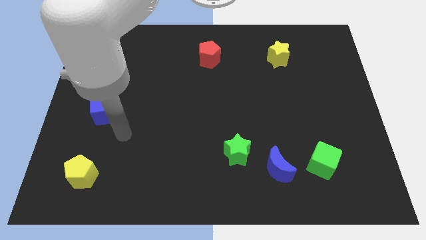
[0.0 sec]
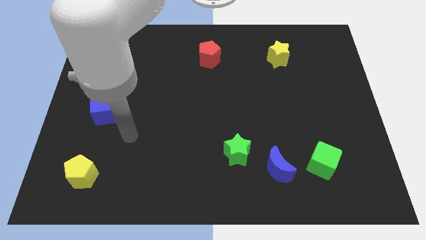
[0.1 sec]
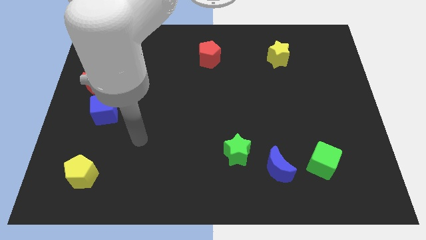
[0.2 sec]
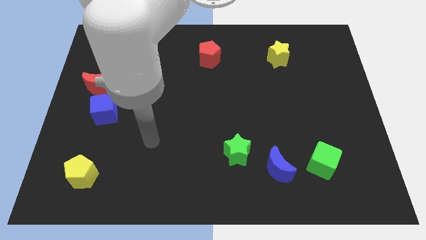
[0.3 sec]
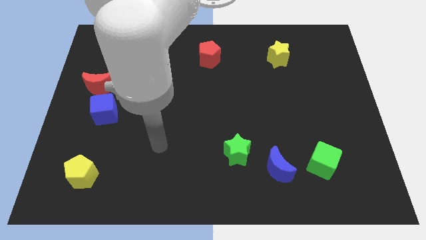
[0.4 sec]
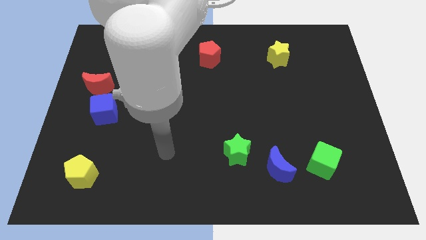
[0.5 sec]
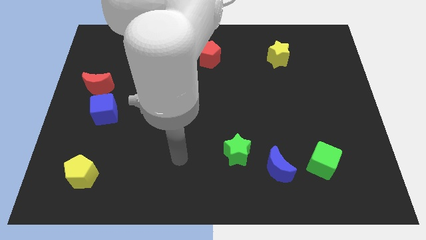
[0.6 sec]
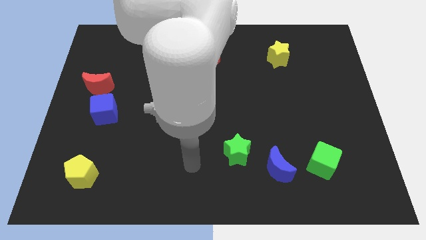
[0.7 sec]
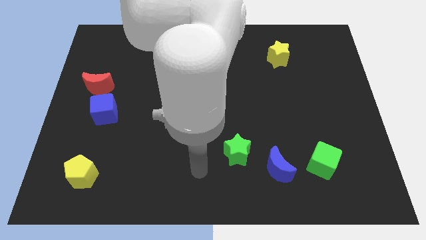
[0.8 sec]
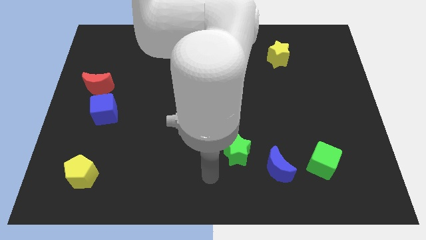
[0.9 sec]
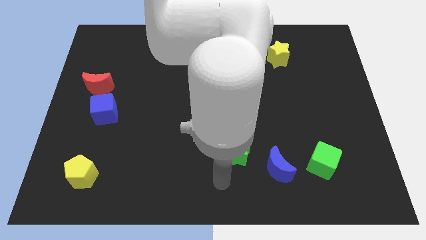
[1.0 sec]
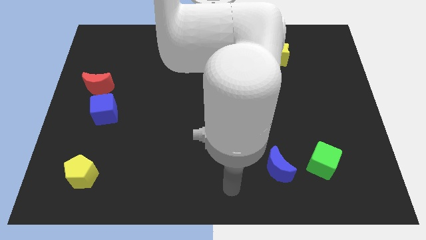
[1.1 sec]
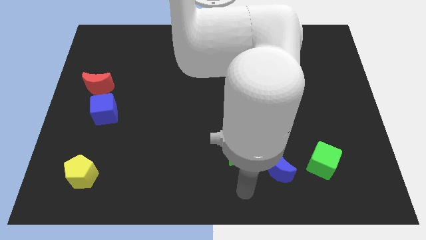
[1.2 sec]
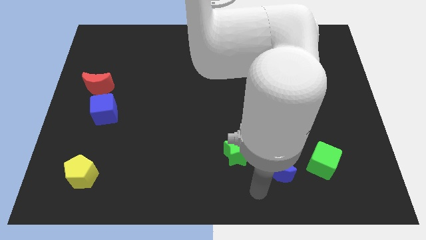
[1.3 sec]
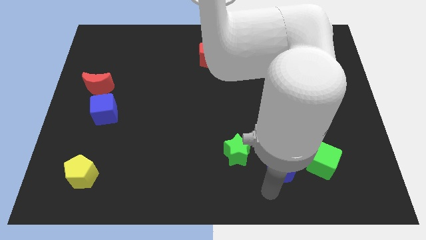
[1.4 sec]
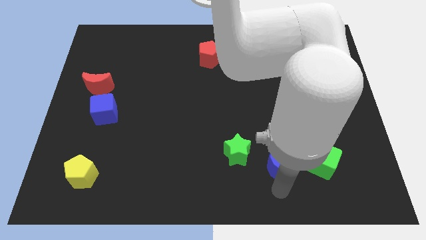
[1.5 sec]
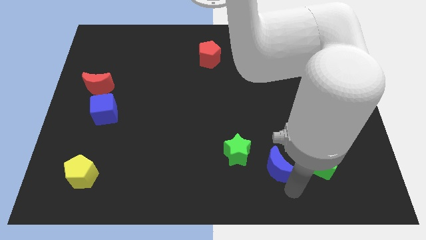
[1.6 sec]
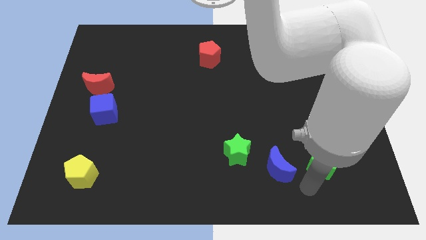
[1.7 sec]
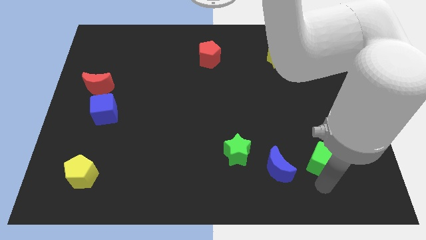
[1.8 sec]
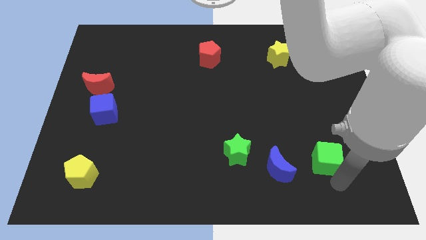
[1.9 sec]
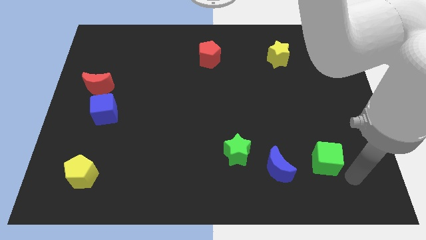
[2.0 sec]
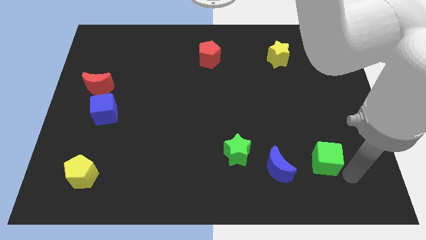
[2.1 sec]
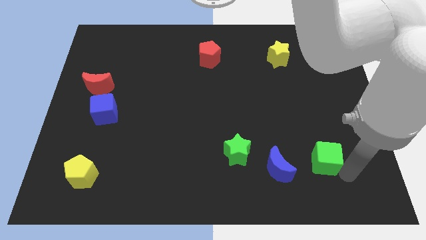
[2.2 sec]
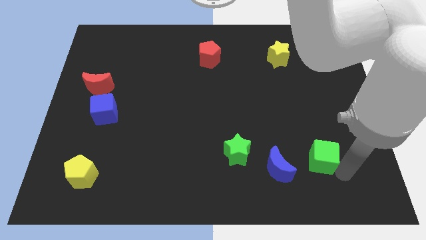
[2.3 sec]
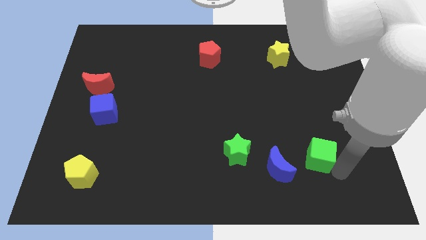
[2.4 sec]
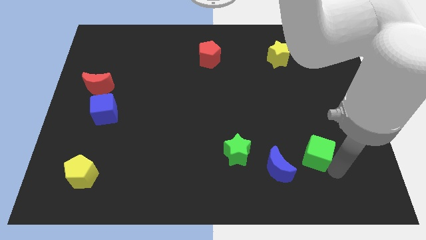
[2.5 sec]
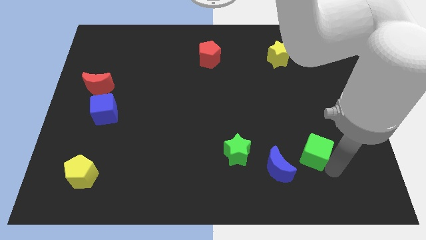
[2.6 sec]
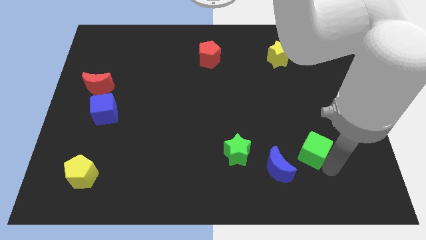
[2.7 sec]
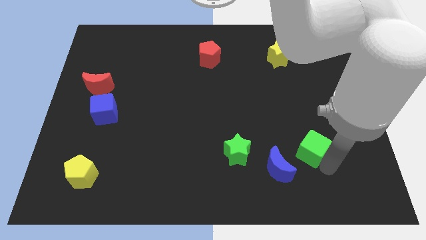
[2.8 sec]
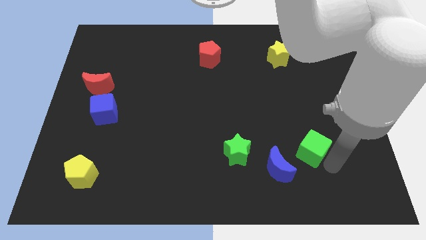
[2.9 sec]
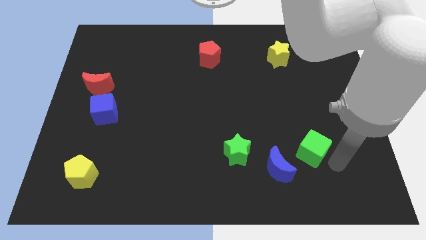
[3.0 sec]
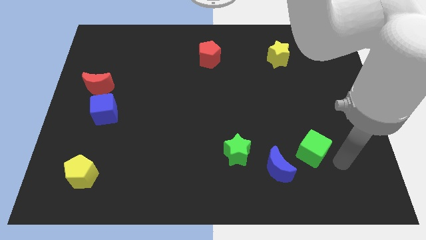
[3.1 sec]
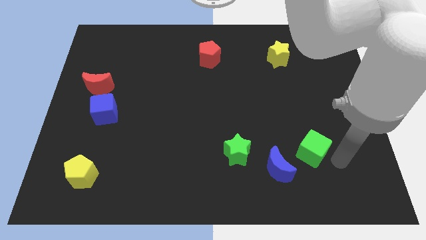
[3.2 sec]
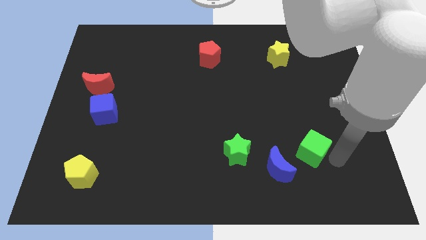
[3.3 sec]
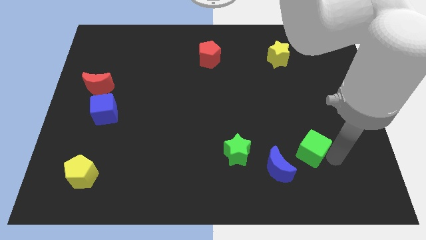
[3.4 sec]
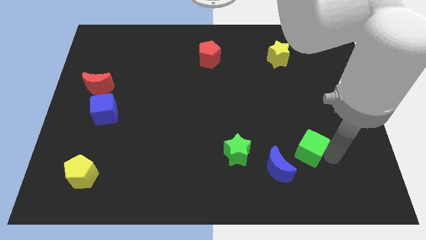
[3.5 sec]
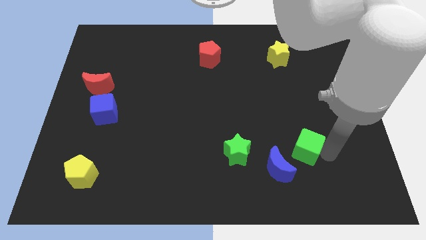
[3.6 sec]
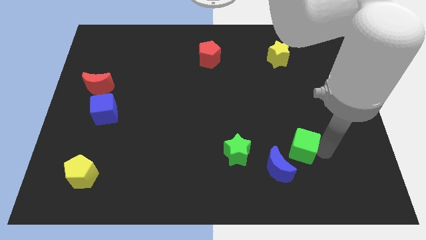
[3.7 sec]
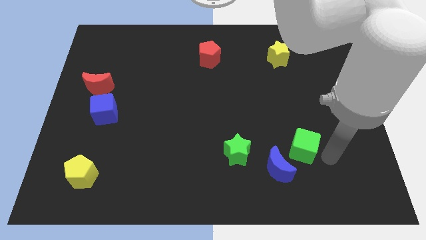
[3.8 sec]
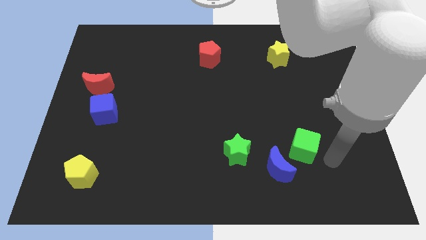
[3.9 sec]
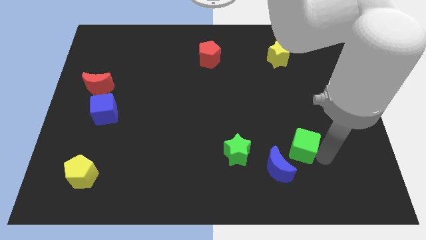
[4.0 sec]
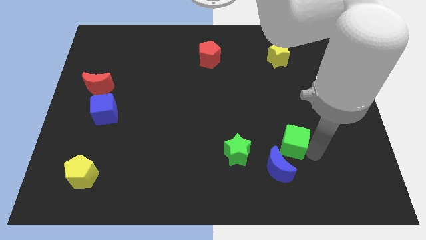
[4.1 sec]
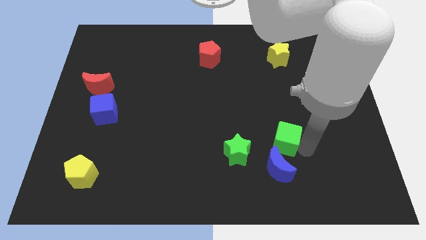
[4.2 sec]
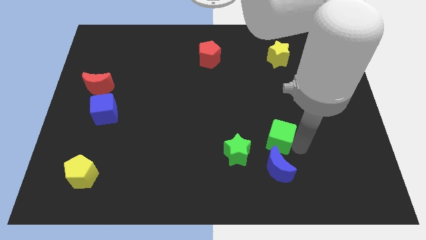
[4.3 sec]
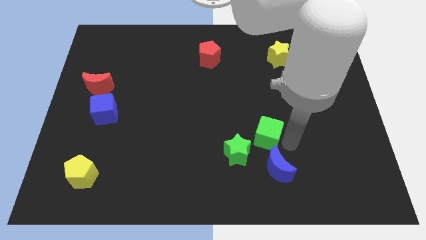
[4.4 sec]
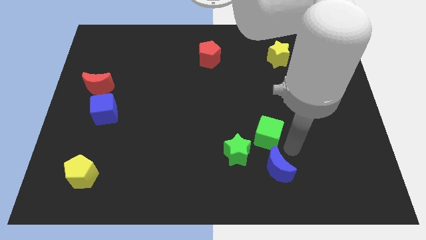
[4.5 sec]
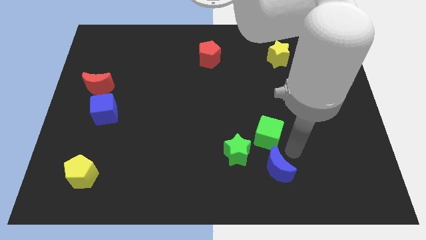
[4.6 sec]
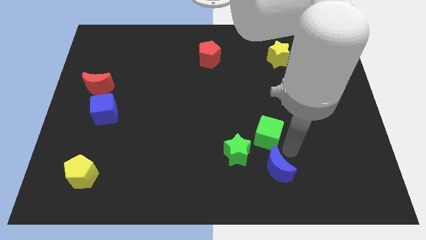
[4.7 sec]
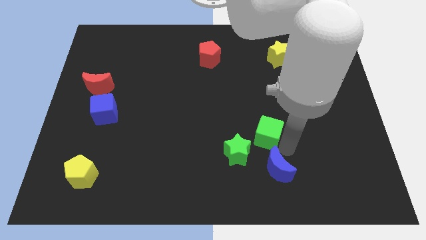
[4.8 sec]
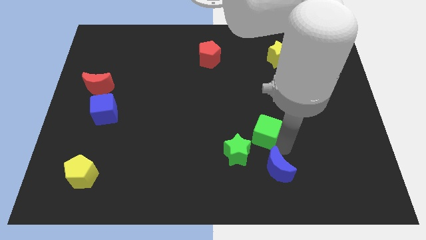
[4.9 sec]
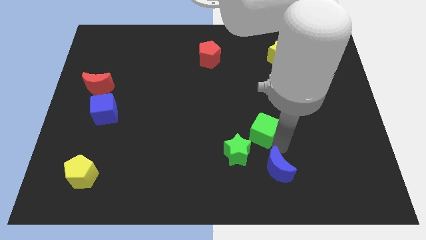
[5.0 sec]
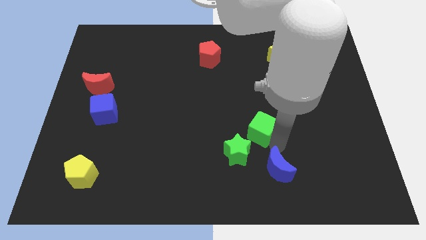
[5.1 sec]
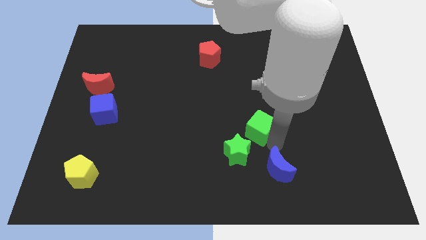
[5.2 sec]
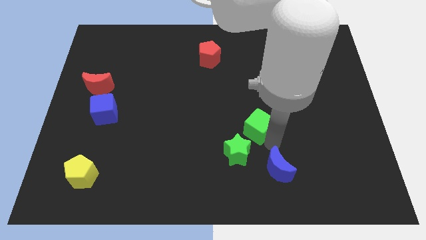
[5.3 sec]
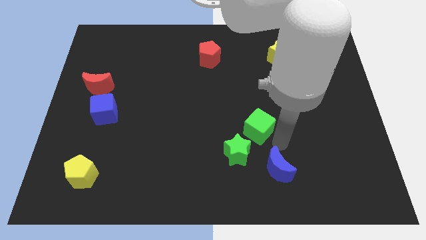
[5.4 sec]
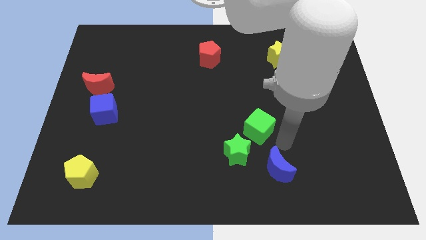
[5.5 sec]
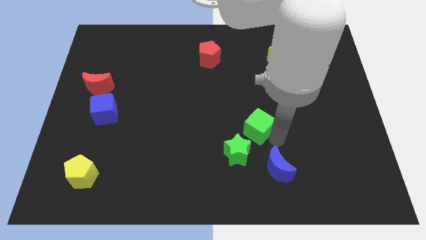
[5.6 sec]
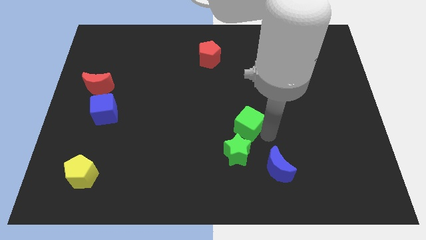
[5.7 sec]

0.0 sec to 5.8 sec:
push the green cube to the center

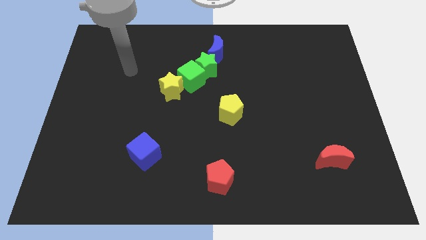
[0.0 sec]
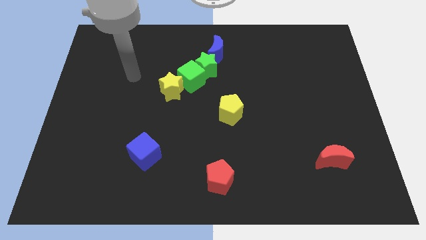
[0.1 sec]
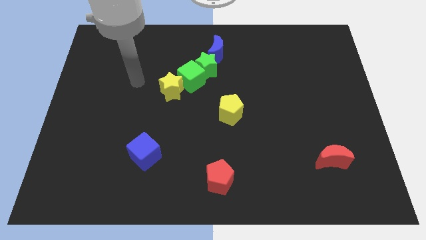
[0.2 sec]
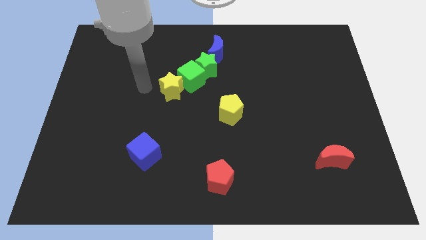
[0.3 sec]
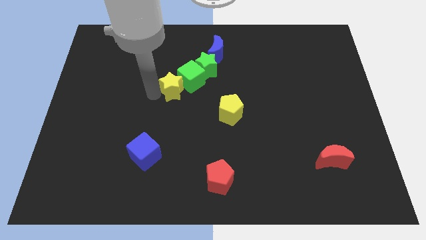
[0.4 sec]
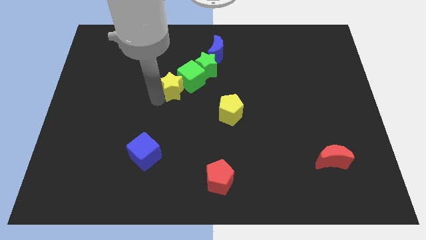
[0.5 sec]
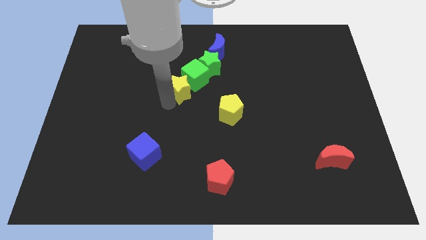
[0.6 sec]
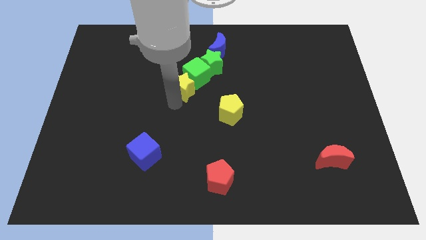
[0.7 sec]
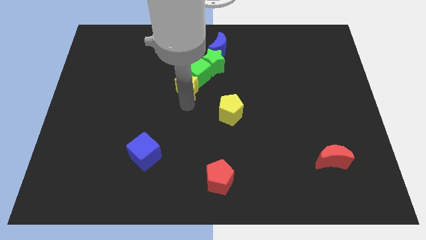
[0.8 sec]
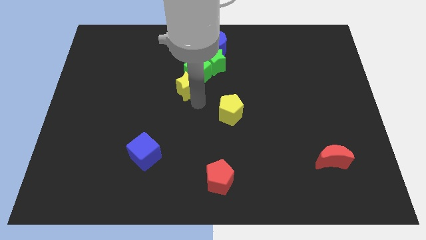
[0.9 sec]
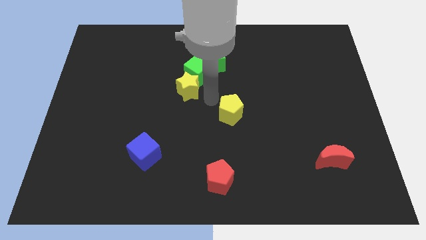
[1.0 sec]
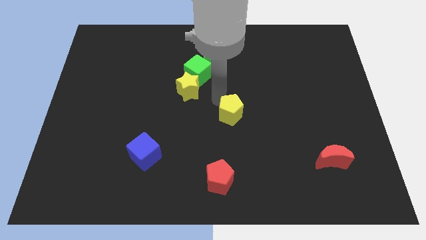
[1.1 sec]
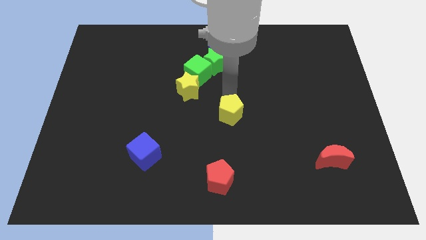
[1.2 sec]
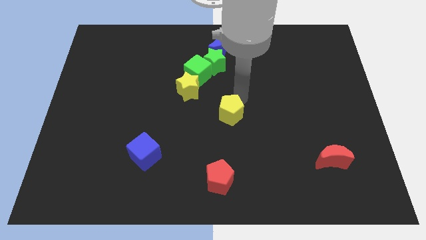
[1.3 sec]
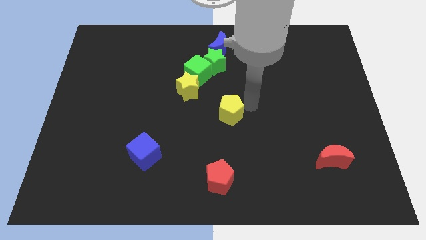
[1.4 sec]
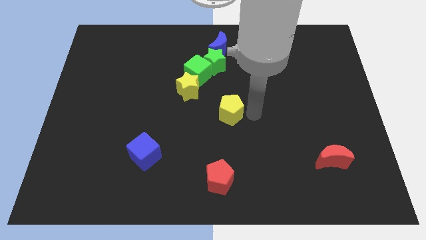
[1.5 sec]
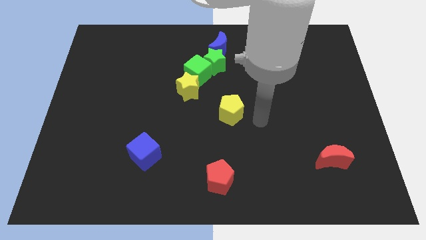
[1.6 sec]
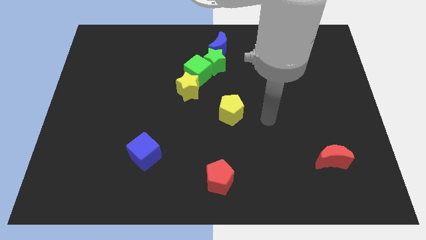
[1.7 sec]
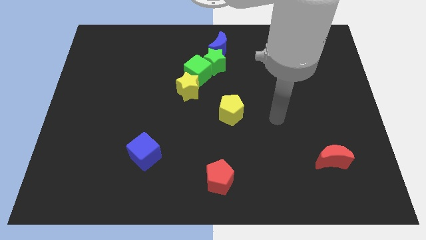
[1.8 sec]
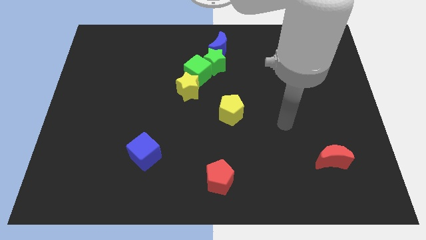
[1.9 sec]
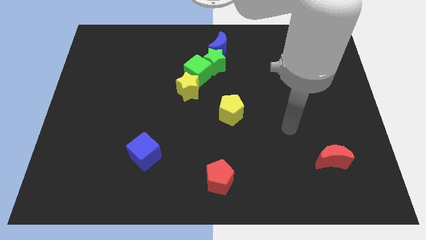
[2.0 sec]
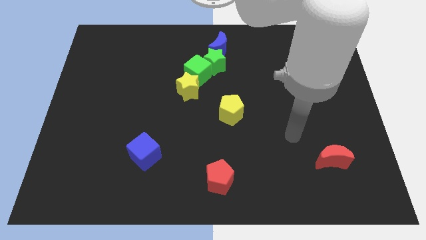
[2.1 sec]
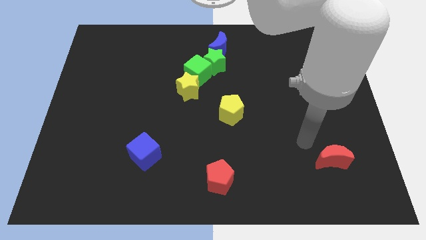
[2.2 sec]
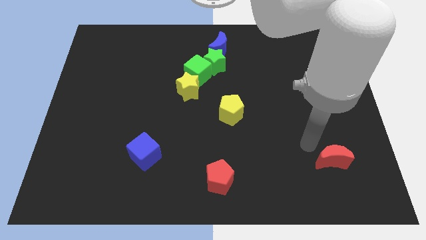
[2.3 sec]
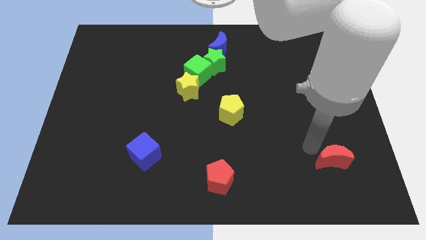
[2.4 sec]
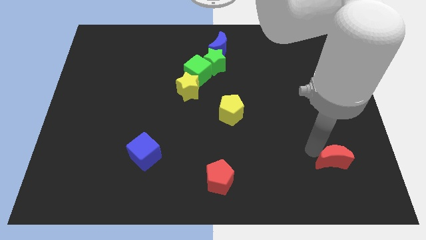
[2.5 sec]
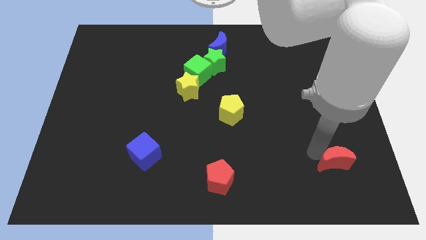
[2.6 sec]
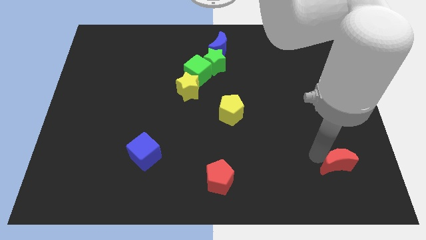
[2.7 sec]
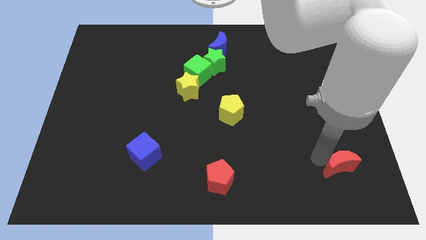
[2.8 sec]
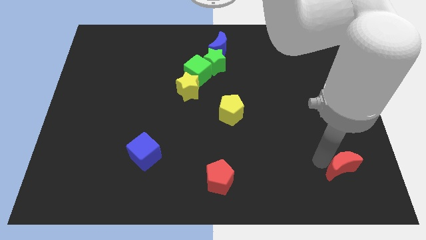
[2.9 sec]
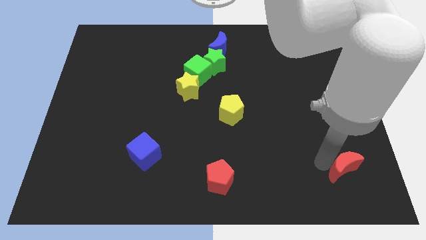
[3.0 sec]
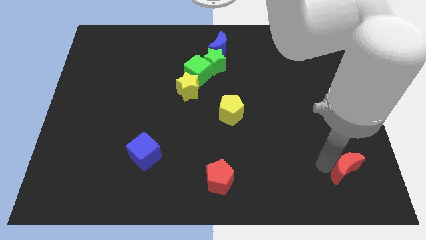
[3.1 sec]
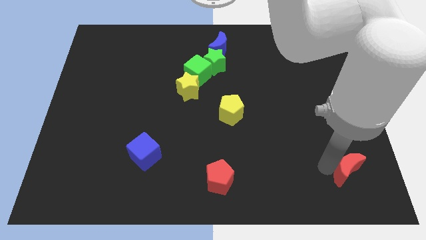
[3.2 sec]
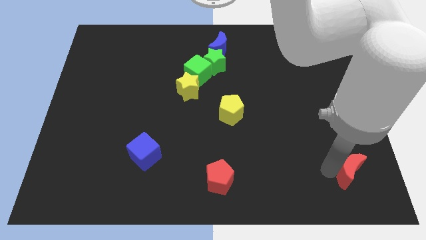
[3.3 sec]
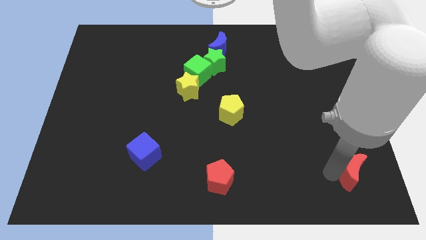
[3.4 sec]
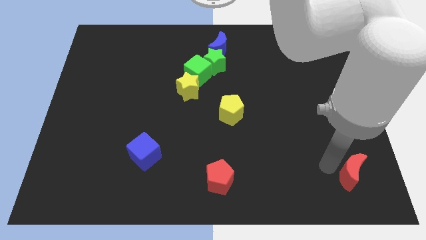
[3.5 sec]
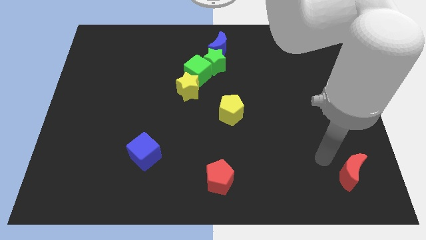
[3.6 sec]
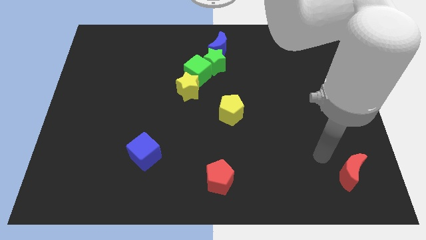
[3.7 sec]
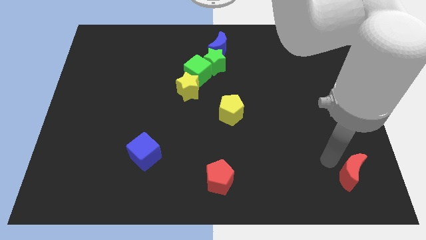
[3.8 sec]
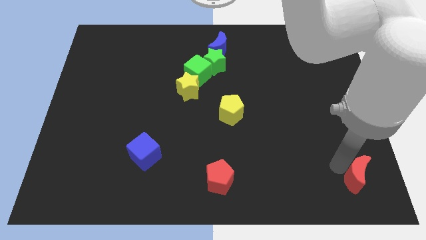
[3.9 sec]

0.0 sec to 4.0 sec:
push the red moon to the lower right corner
